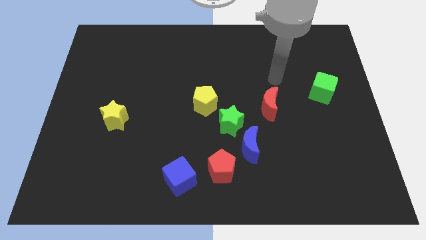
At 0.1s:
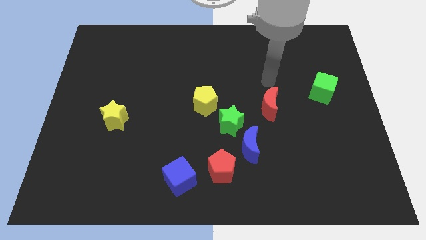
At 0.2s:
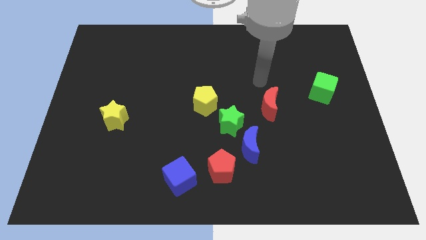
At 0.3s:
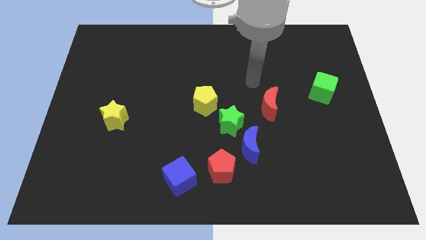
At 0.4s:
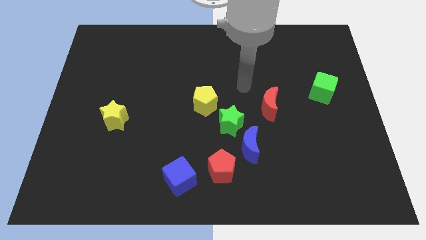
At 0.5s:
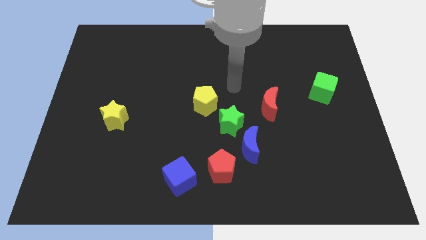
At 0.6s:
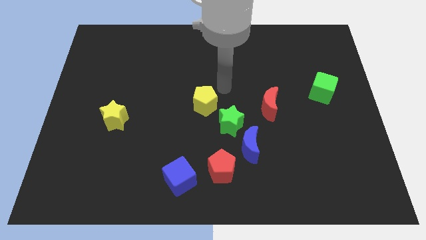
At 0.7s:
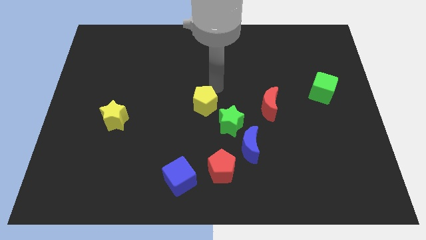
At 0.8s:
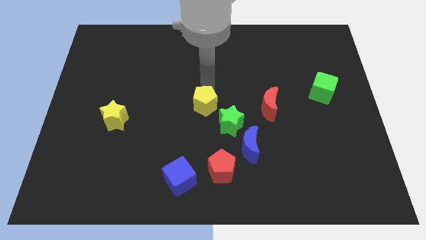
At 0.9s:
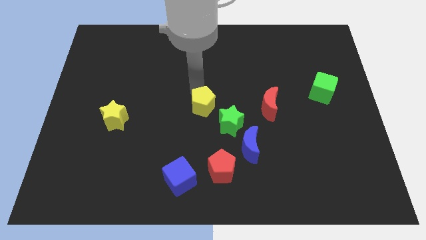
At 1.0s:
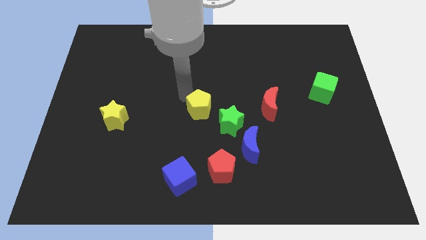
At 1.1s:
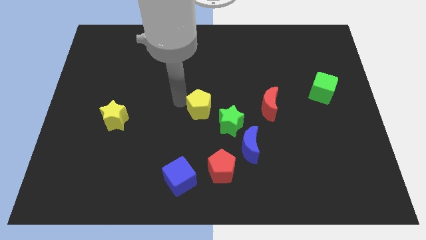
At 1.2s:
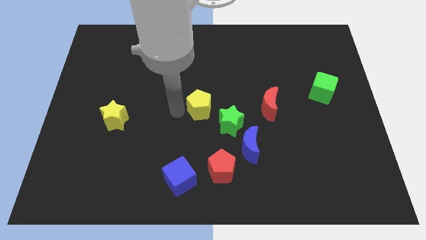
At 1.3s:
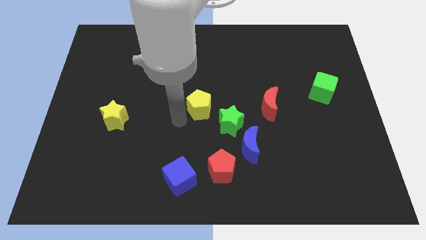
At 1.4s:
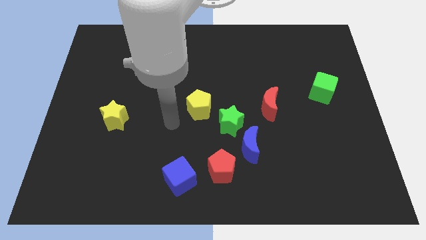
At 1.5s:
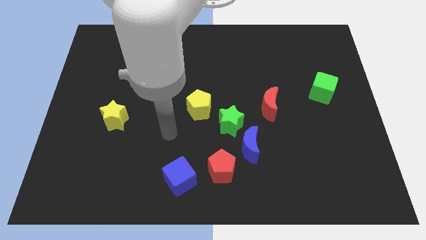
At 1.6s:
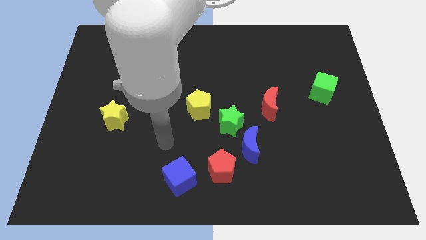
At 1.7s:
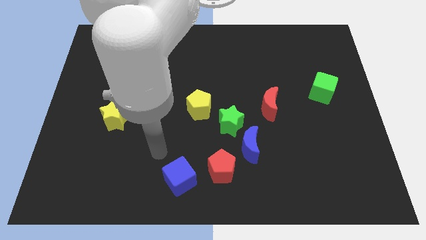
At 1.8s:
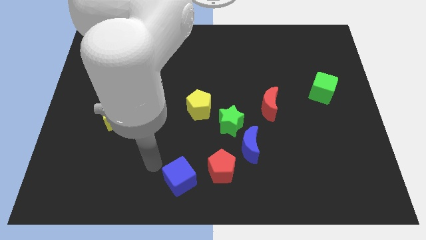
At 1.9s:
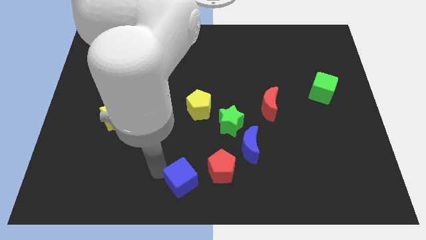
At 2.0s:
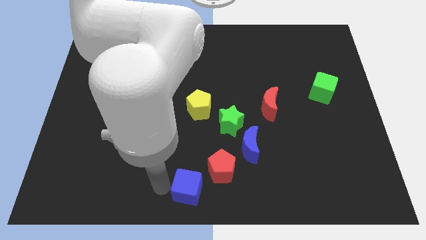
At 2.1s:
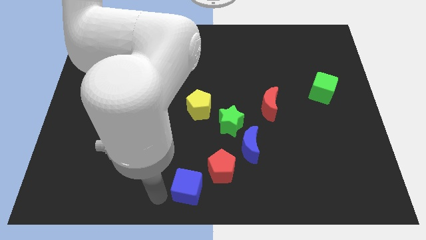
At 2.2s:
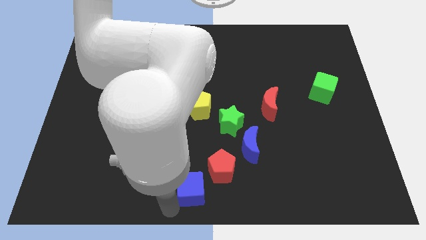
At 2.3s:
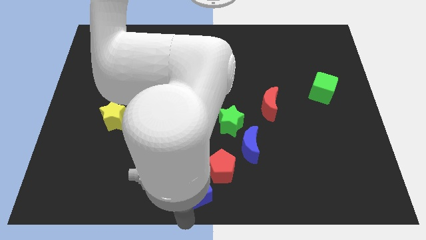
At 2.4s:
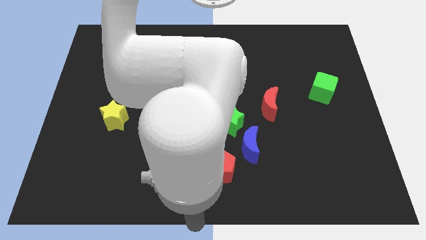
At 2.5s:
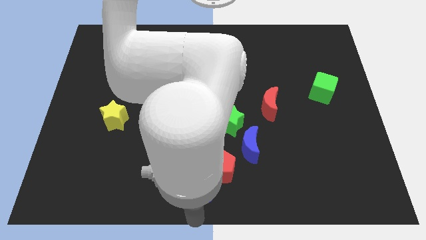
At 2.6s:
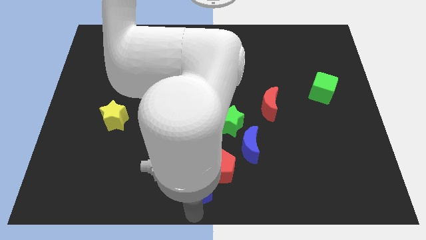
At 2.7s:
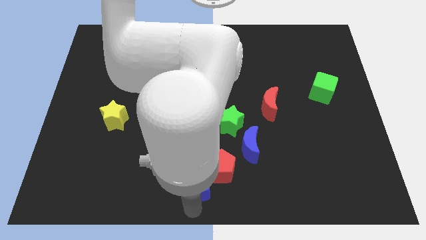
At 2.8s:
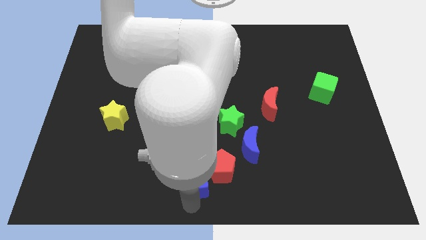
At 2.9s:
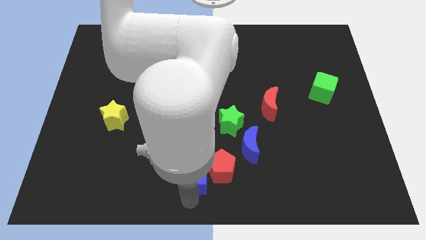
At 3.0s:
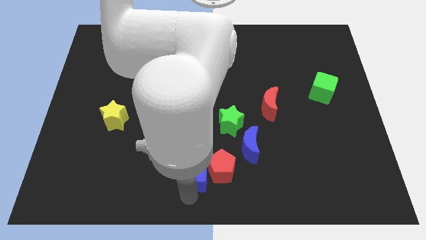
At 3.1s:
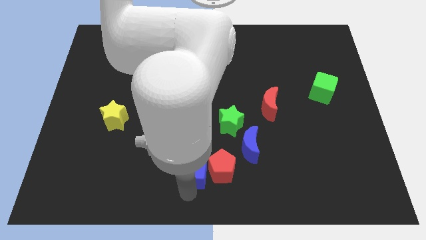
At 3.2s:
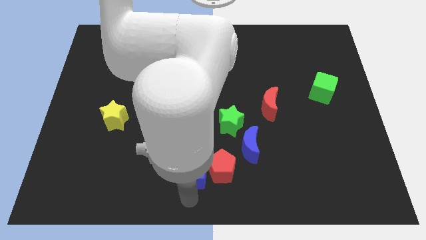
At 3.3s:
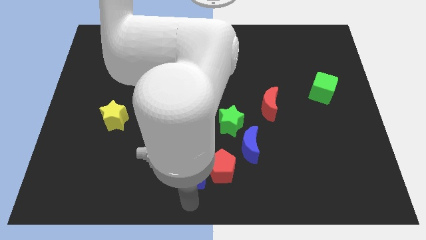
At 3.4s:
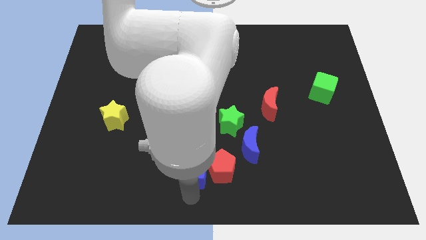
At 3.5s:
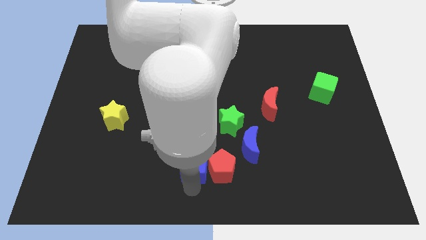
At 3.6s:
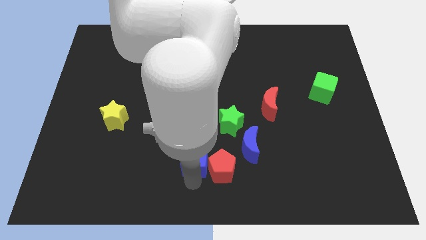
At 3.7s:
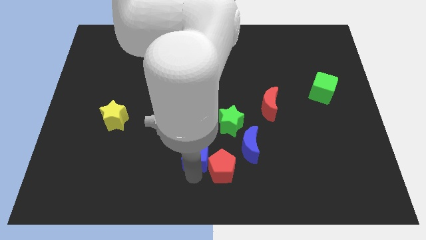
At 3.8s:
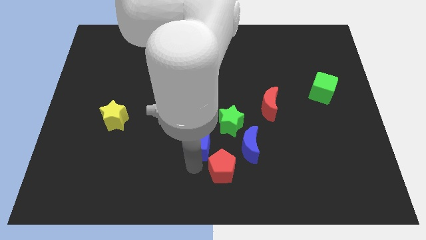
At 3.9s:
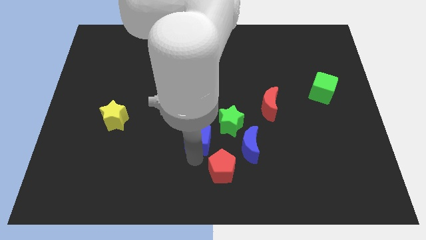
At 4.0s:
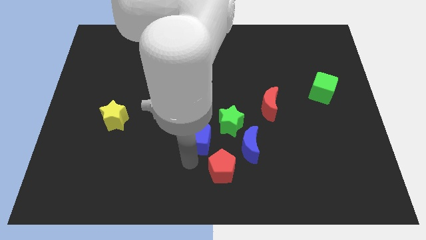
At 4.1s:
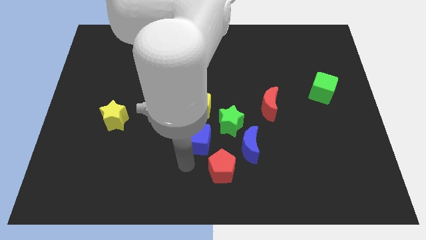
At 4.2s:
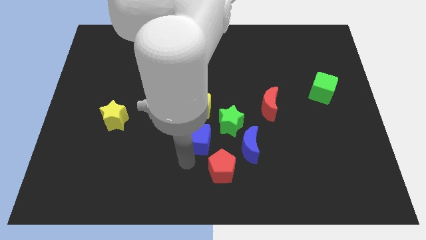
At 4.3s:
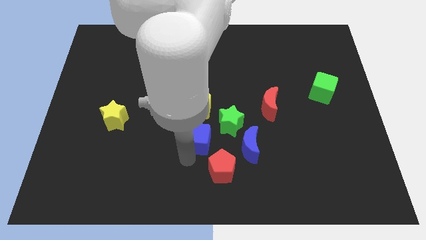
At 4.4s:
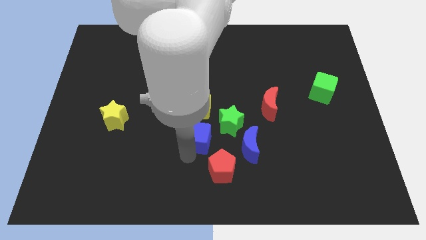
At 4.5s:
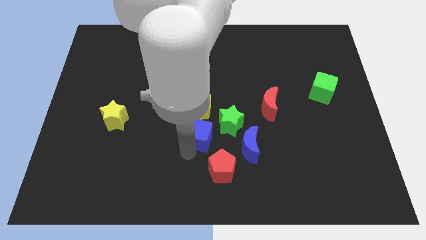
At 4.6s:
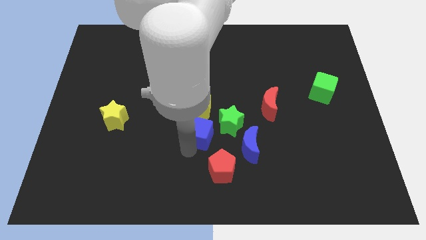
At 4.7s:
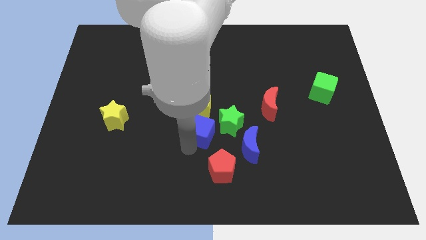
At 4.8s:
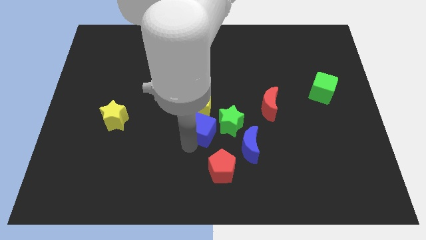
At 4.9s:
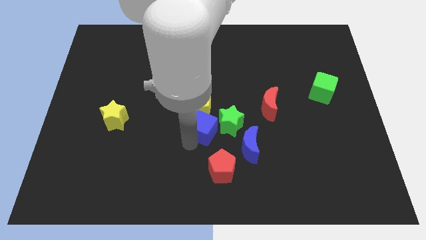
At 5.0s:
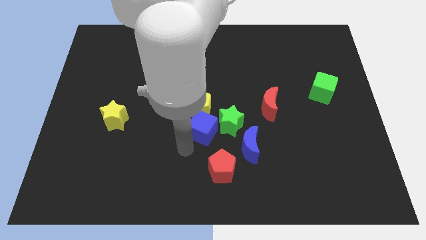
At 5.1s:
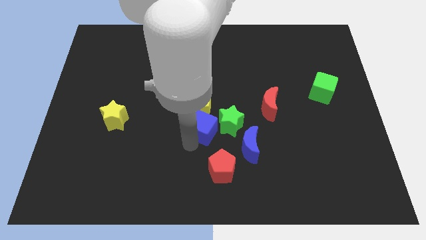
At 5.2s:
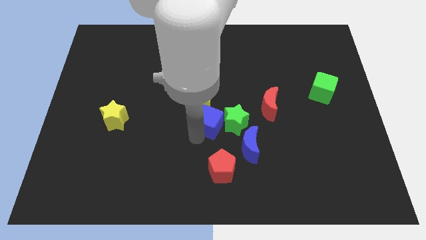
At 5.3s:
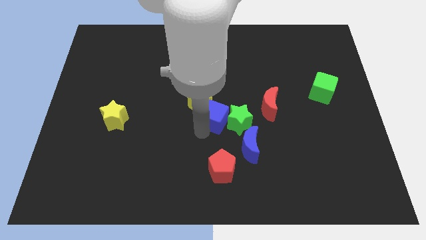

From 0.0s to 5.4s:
move the blue cube to the left of the red moon

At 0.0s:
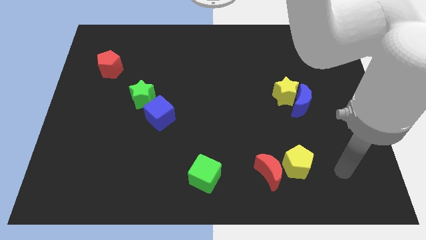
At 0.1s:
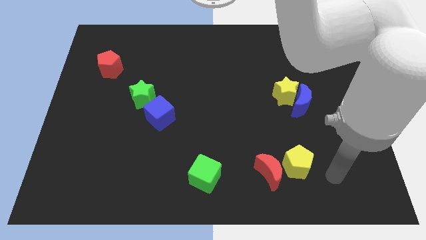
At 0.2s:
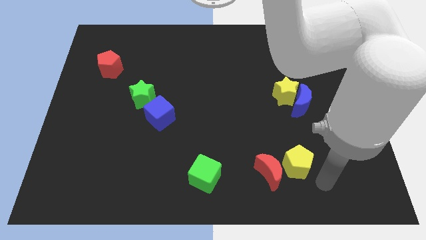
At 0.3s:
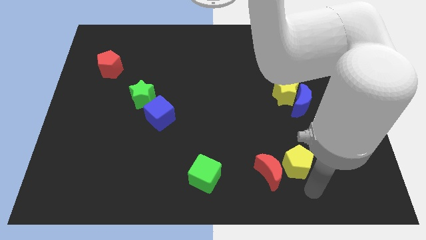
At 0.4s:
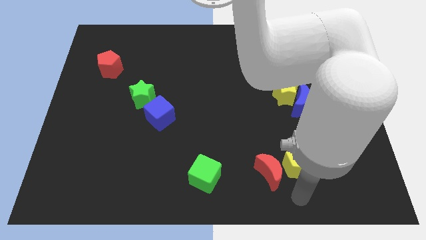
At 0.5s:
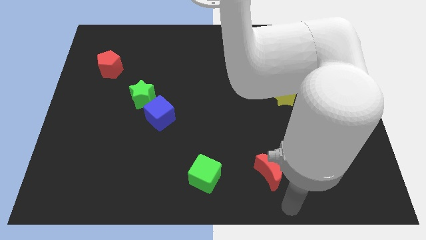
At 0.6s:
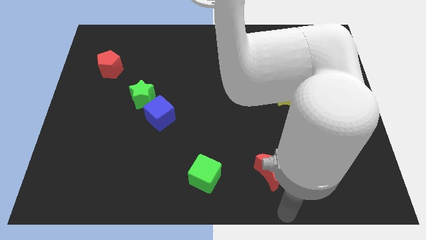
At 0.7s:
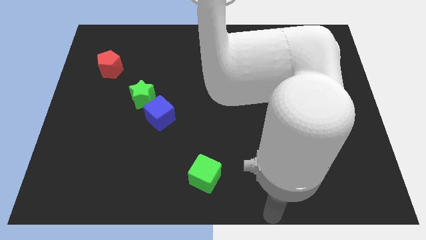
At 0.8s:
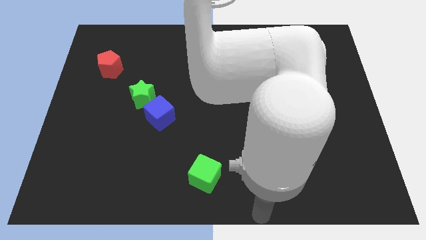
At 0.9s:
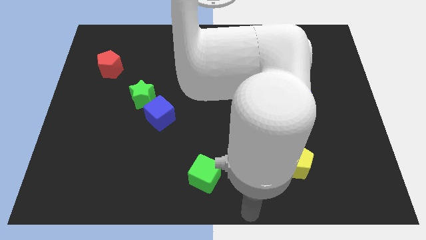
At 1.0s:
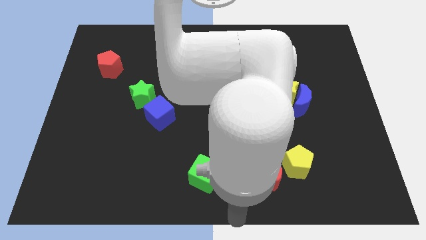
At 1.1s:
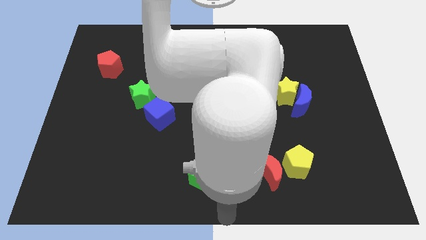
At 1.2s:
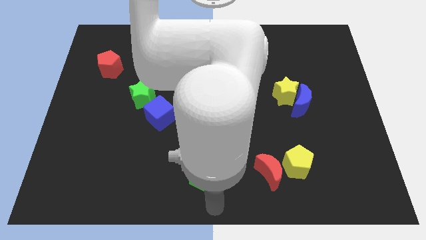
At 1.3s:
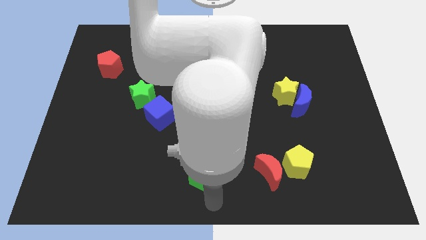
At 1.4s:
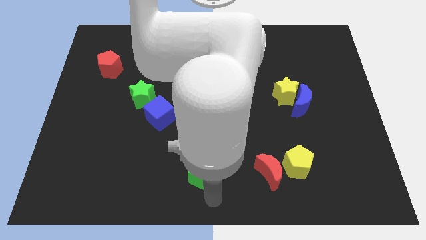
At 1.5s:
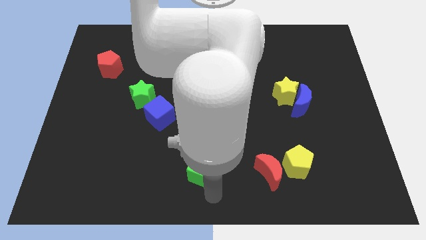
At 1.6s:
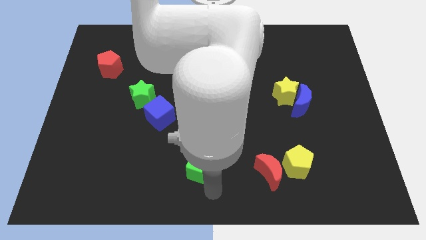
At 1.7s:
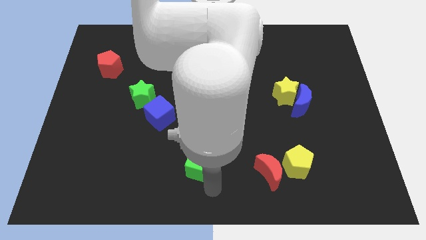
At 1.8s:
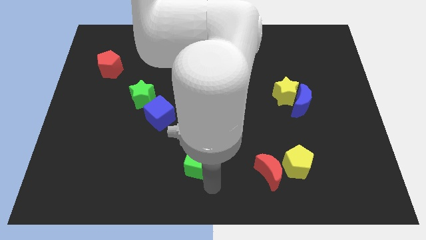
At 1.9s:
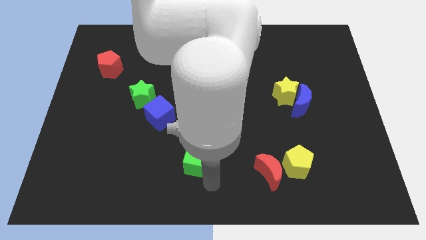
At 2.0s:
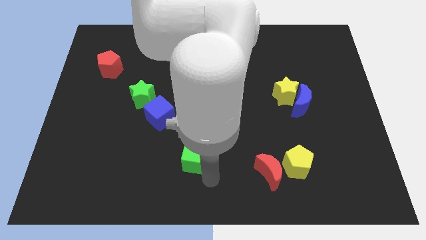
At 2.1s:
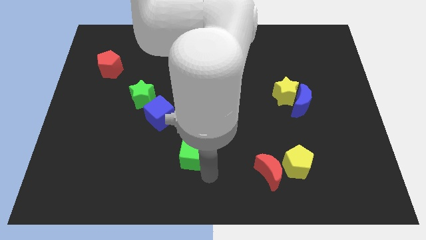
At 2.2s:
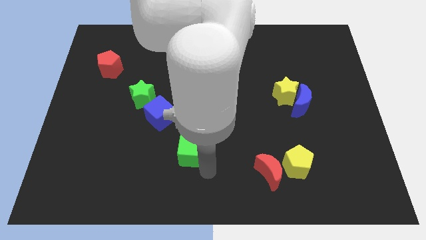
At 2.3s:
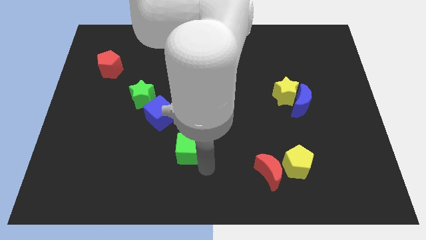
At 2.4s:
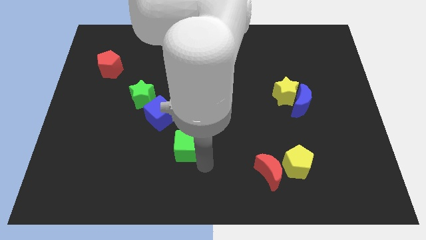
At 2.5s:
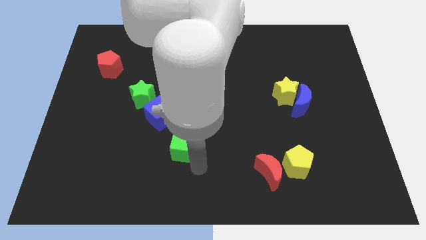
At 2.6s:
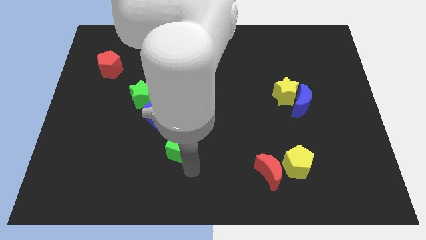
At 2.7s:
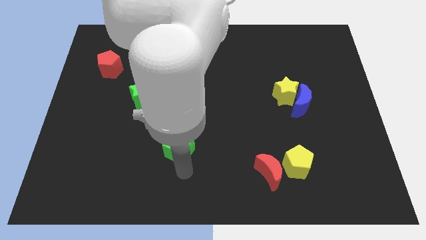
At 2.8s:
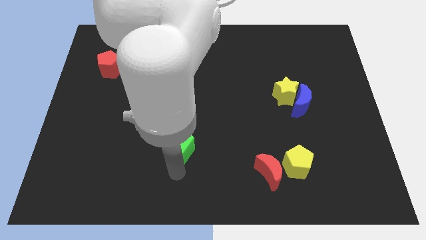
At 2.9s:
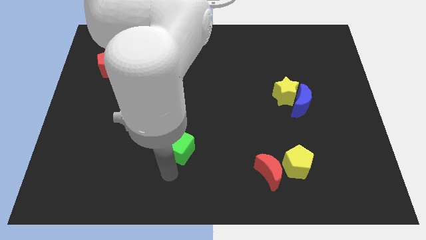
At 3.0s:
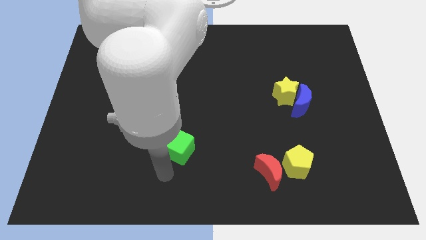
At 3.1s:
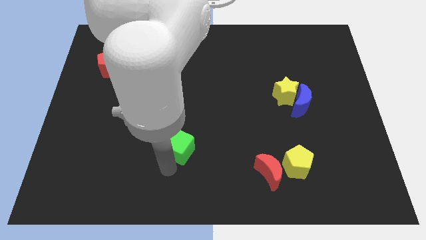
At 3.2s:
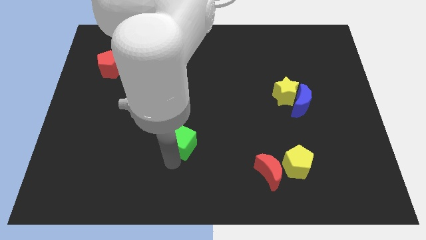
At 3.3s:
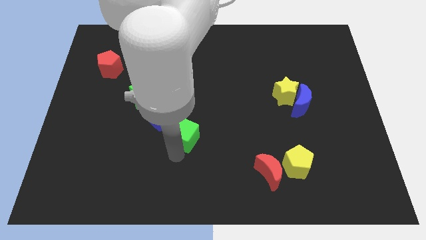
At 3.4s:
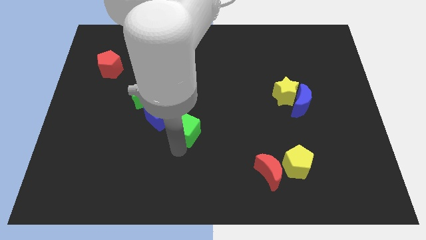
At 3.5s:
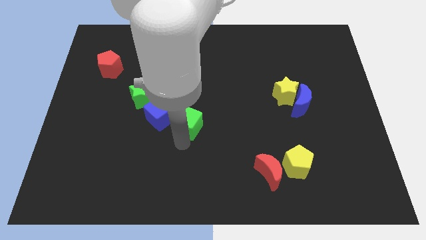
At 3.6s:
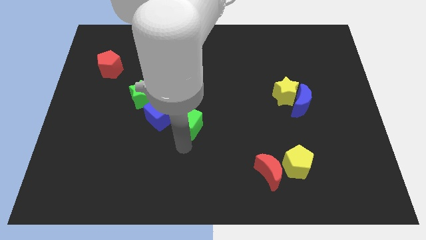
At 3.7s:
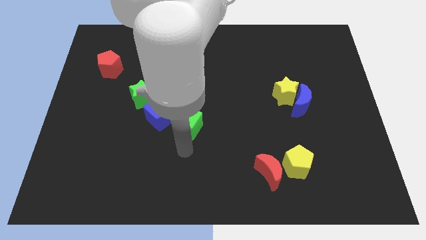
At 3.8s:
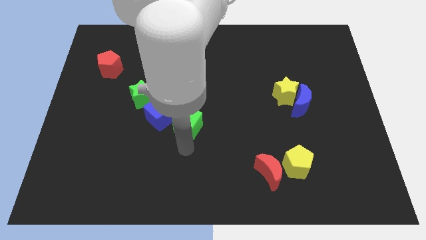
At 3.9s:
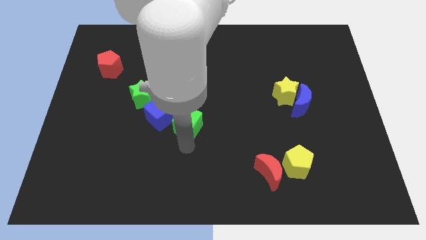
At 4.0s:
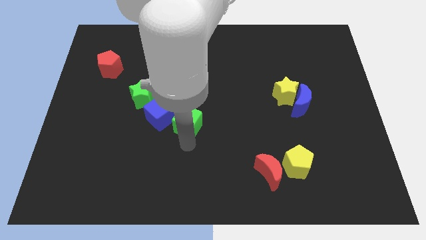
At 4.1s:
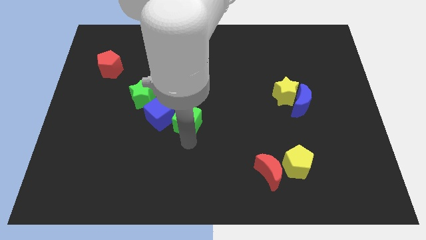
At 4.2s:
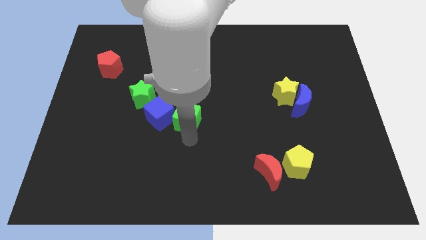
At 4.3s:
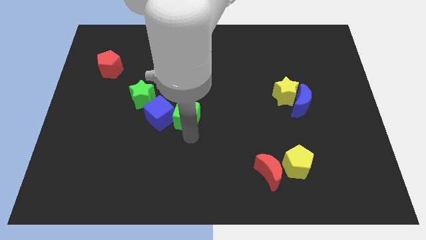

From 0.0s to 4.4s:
slide the green cube to the top right of the blue cube
